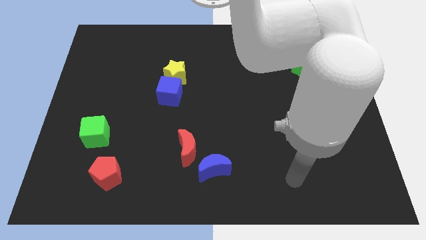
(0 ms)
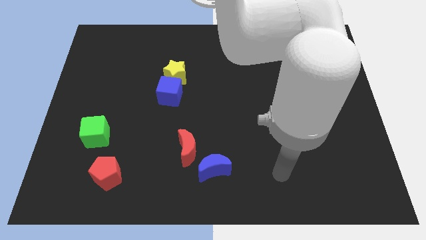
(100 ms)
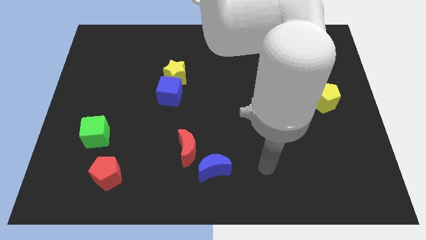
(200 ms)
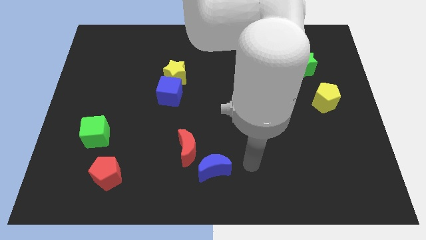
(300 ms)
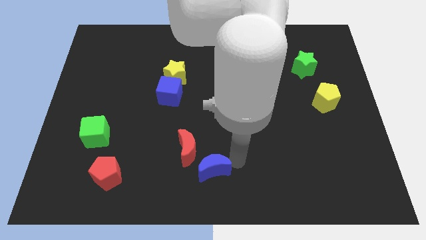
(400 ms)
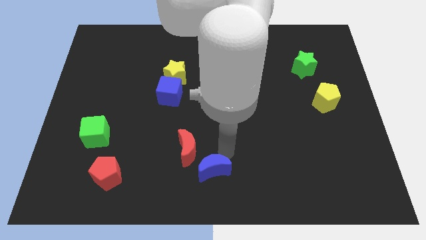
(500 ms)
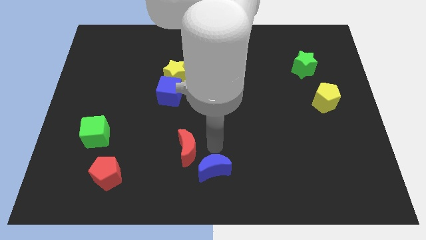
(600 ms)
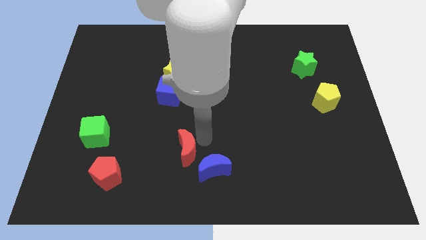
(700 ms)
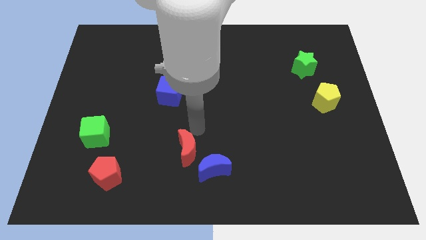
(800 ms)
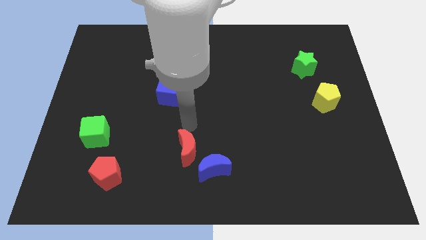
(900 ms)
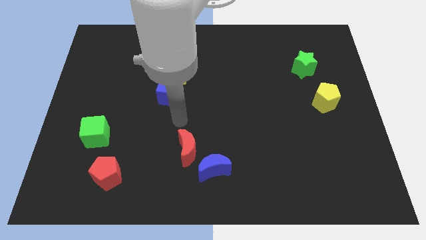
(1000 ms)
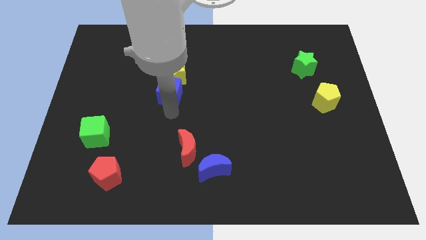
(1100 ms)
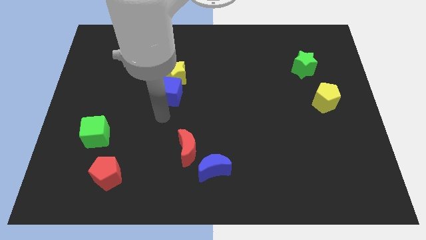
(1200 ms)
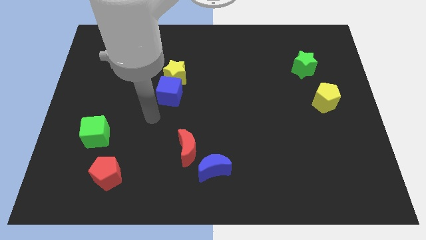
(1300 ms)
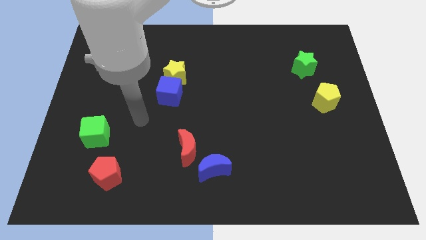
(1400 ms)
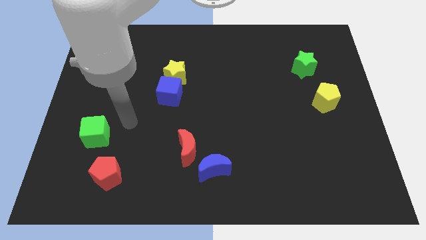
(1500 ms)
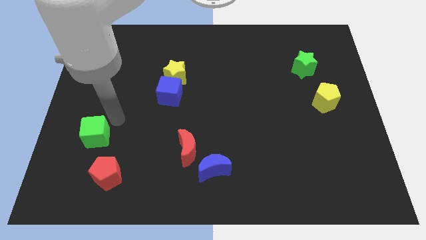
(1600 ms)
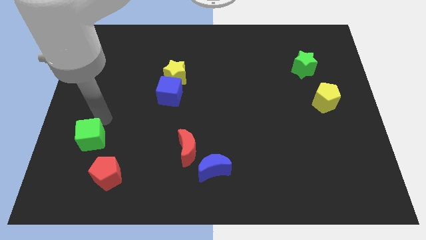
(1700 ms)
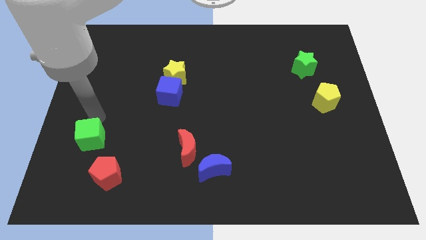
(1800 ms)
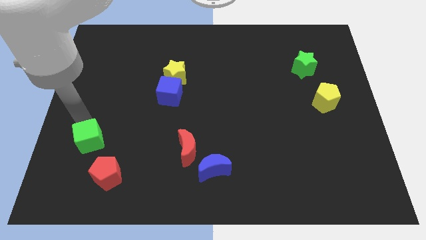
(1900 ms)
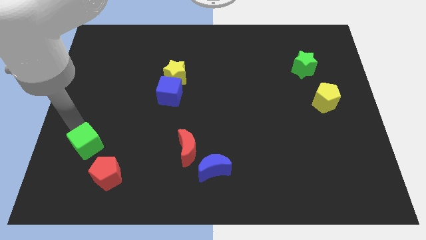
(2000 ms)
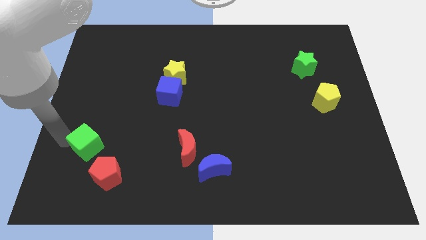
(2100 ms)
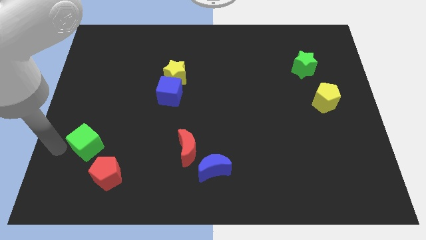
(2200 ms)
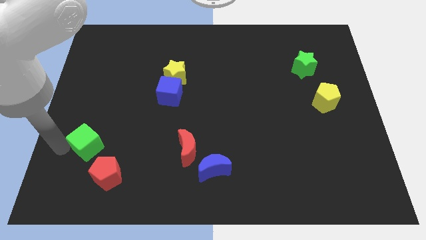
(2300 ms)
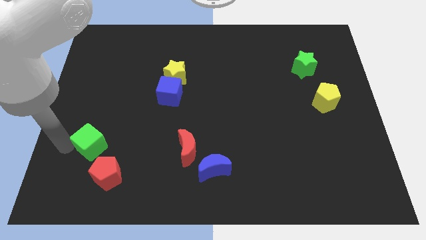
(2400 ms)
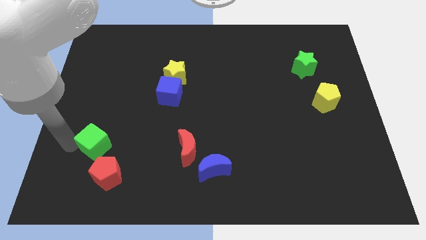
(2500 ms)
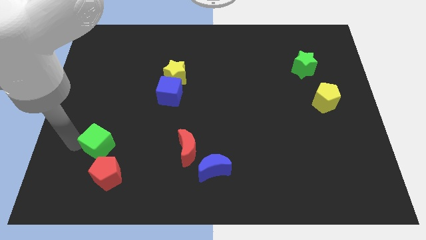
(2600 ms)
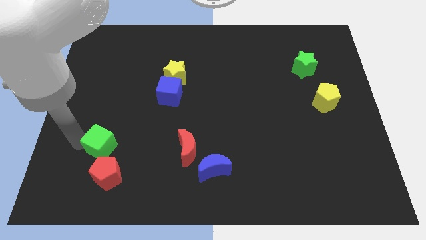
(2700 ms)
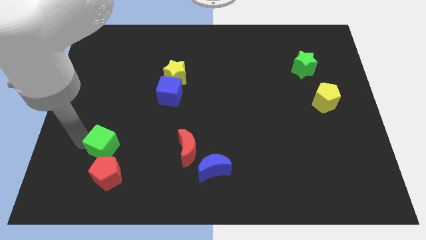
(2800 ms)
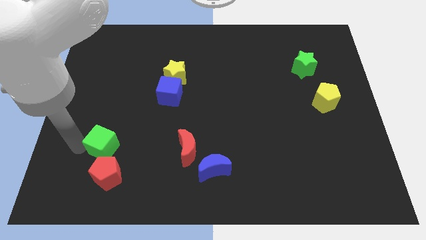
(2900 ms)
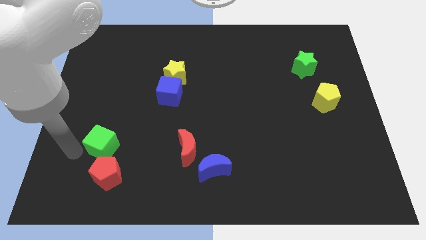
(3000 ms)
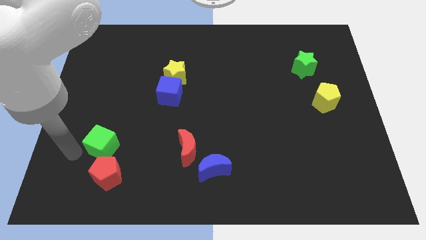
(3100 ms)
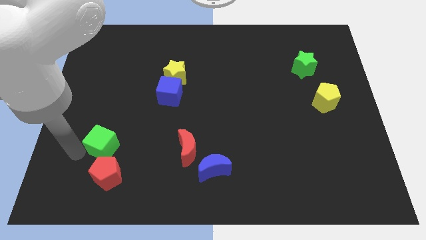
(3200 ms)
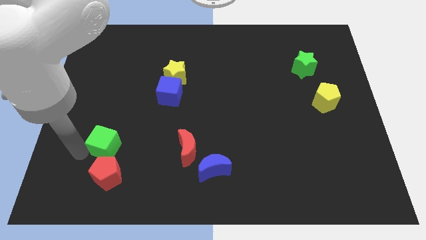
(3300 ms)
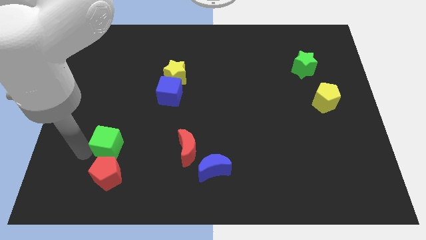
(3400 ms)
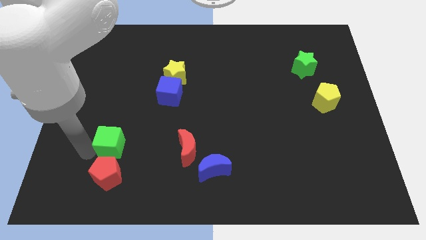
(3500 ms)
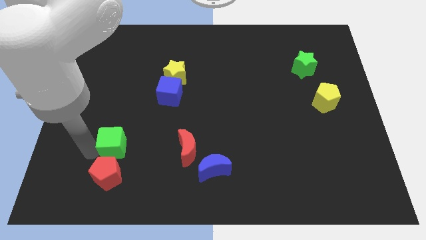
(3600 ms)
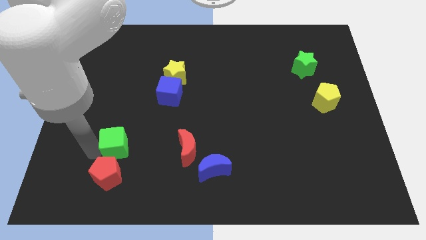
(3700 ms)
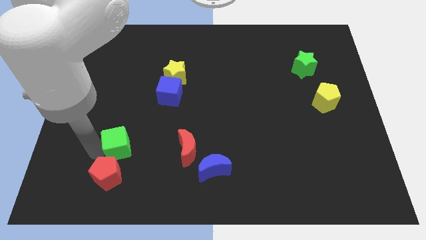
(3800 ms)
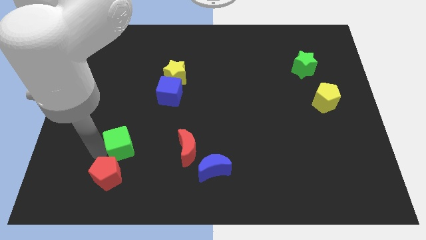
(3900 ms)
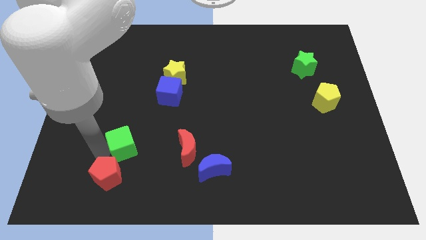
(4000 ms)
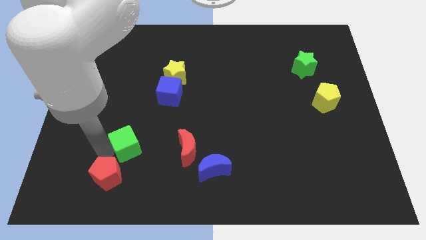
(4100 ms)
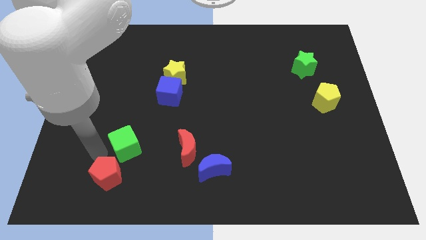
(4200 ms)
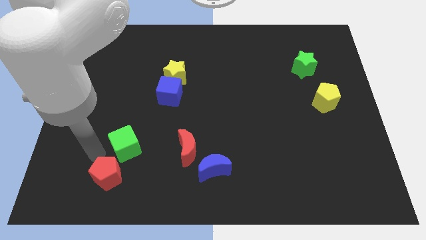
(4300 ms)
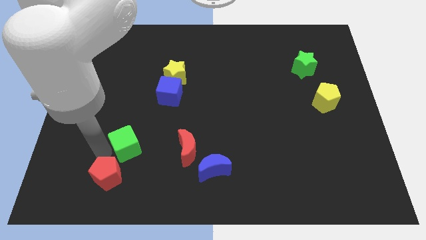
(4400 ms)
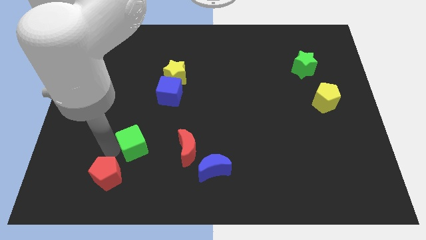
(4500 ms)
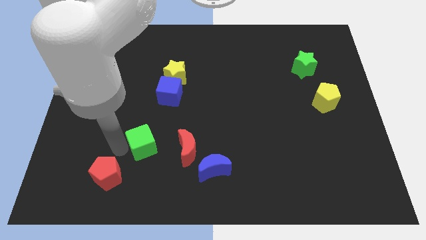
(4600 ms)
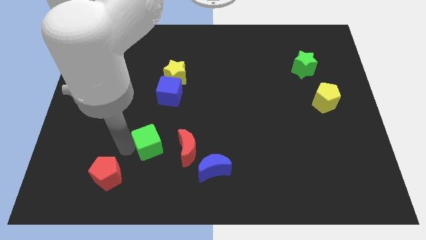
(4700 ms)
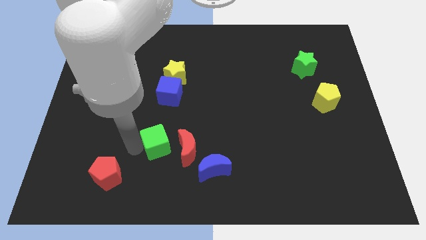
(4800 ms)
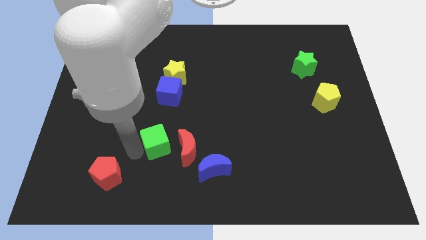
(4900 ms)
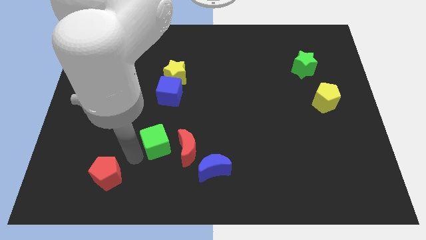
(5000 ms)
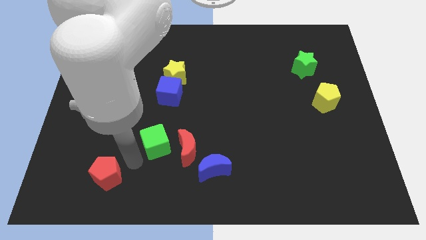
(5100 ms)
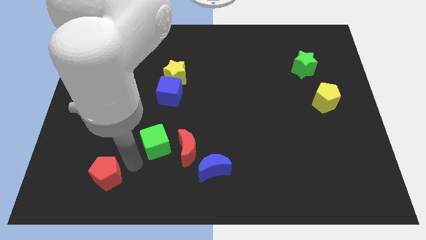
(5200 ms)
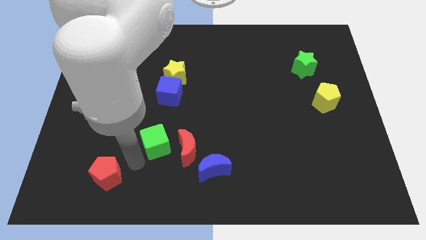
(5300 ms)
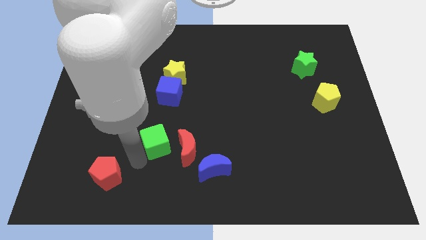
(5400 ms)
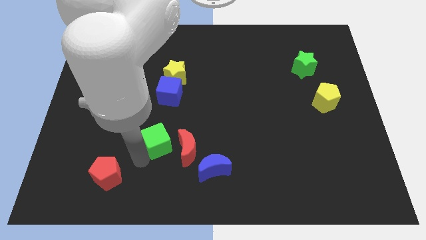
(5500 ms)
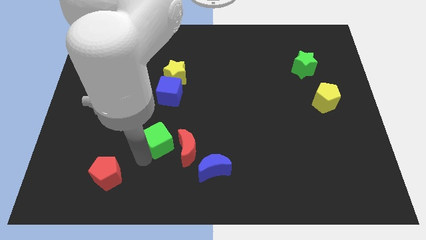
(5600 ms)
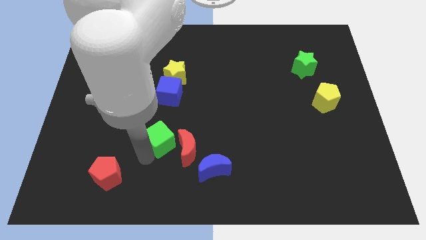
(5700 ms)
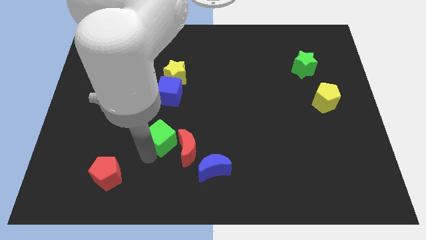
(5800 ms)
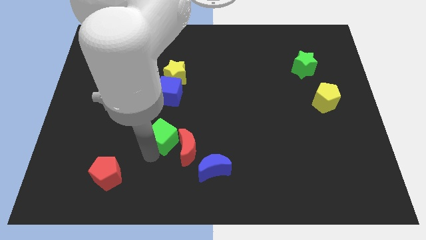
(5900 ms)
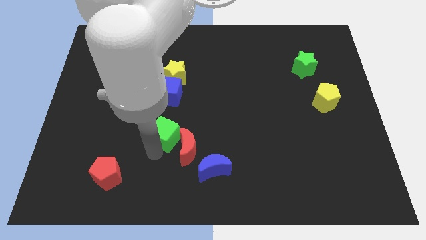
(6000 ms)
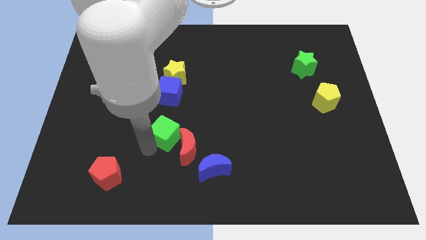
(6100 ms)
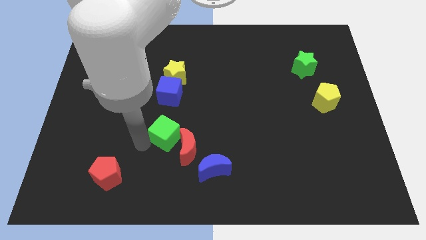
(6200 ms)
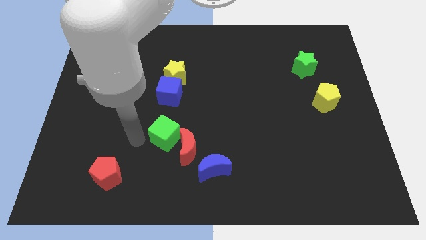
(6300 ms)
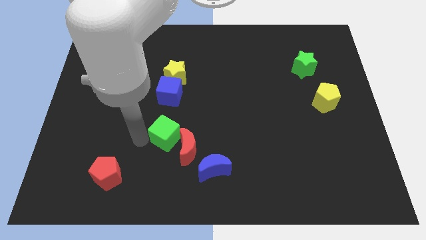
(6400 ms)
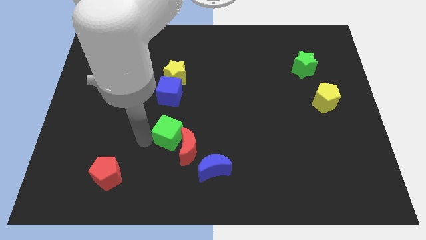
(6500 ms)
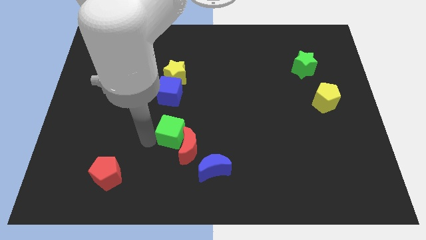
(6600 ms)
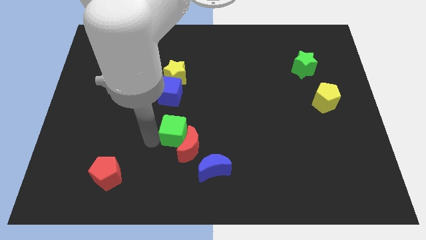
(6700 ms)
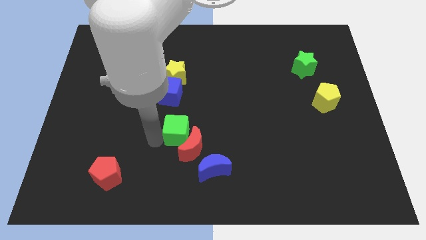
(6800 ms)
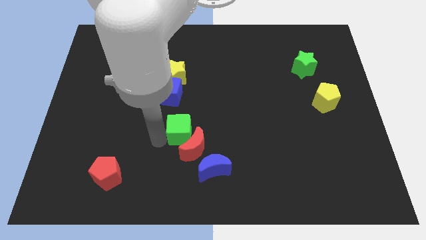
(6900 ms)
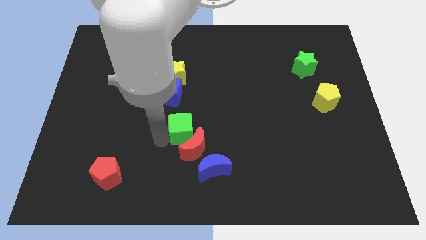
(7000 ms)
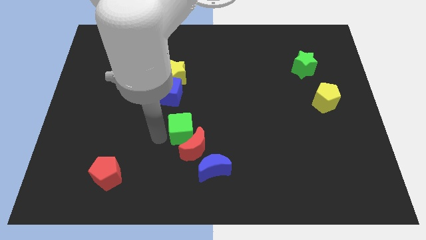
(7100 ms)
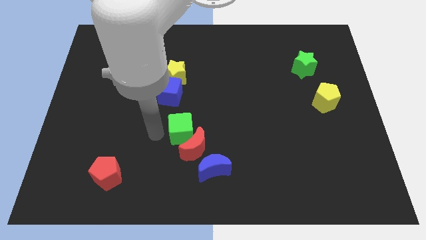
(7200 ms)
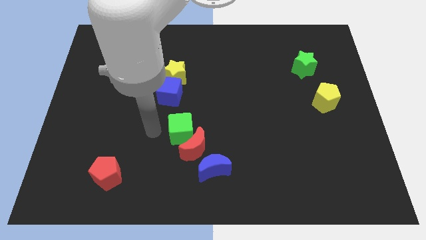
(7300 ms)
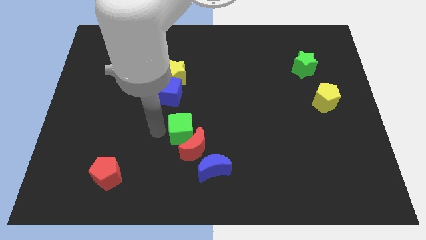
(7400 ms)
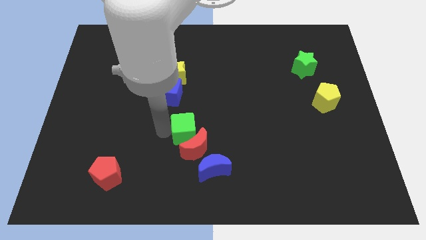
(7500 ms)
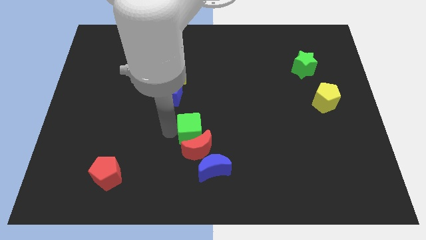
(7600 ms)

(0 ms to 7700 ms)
push the green cube to the right

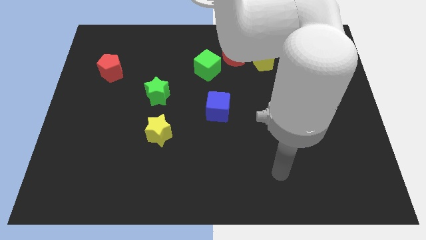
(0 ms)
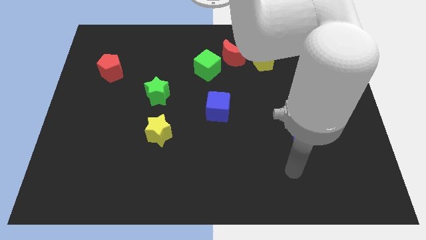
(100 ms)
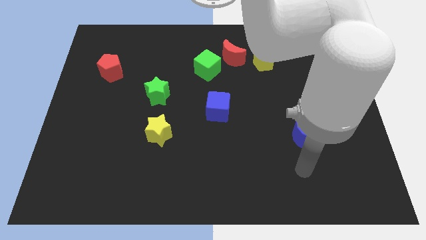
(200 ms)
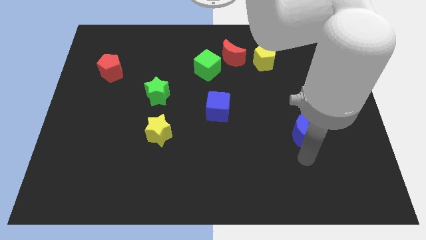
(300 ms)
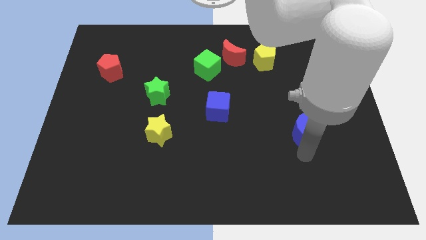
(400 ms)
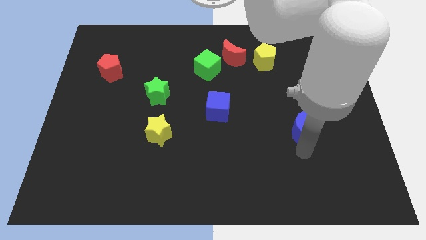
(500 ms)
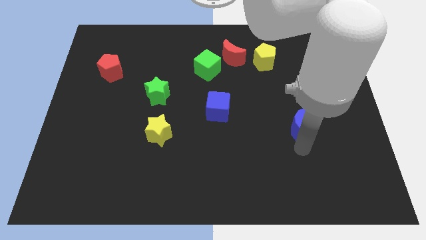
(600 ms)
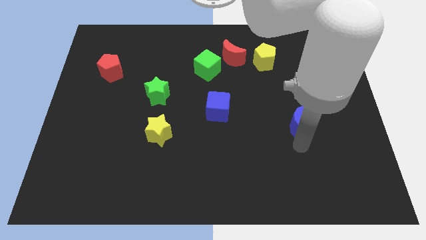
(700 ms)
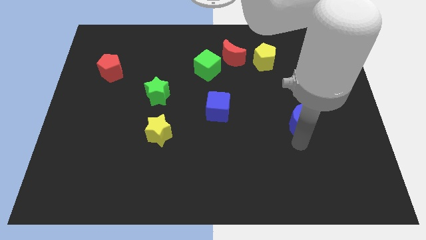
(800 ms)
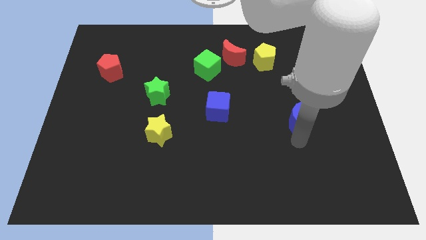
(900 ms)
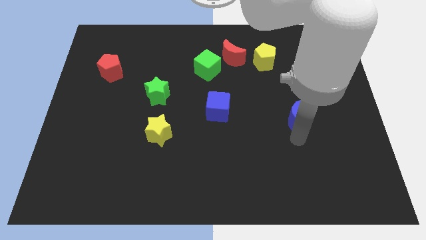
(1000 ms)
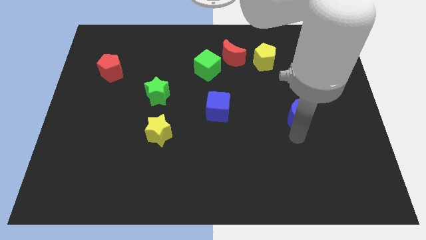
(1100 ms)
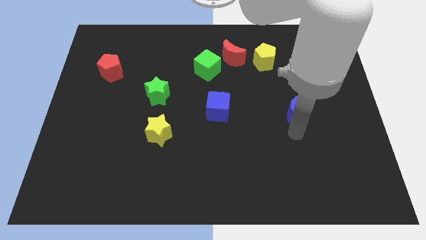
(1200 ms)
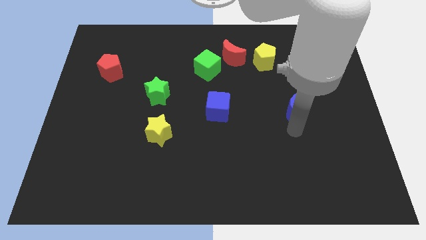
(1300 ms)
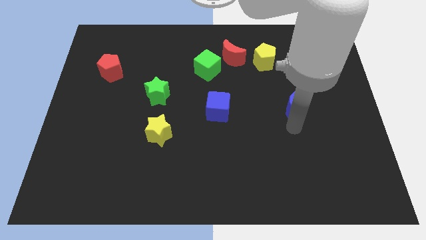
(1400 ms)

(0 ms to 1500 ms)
slightly move the blue moon up
